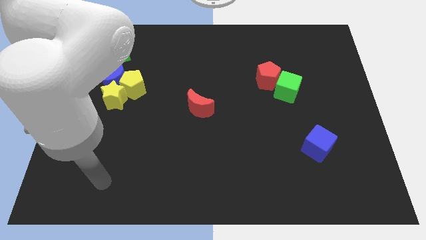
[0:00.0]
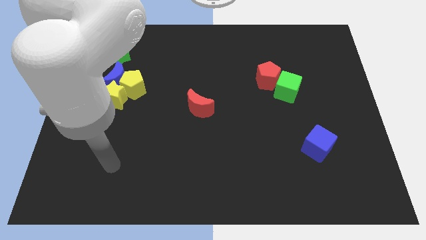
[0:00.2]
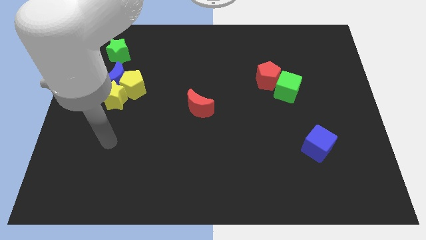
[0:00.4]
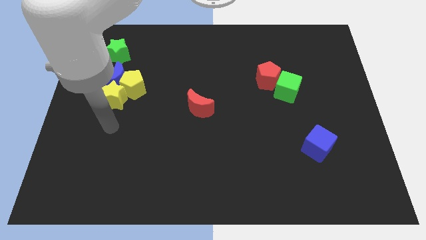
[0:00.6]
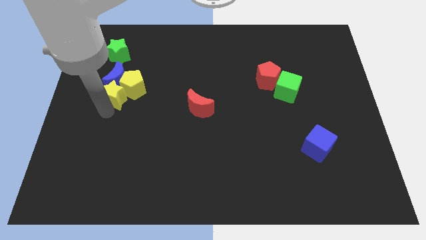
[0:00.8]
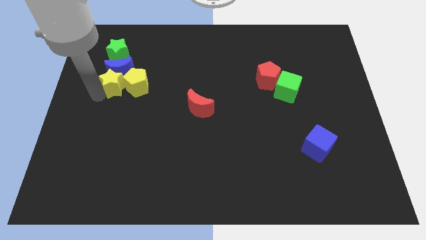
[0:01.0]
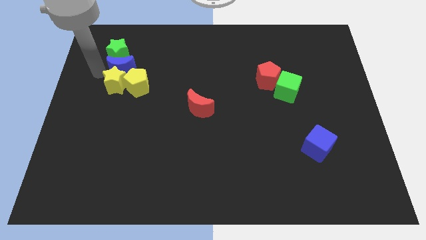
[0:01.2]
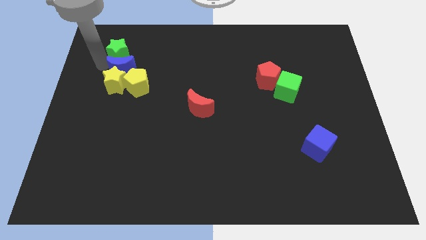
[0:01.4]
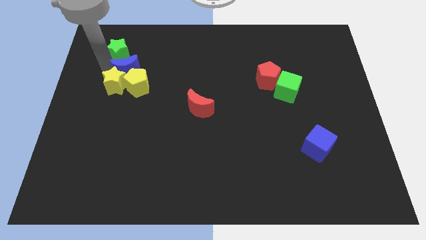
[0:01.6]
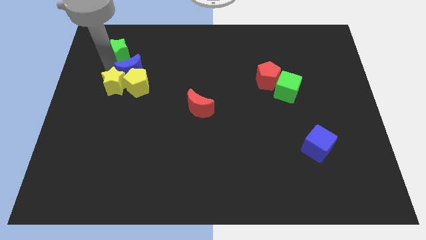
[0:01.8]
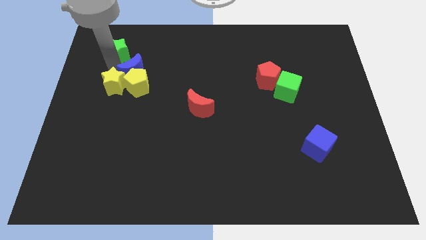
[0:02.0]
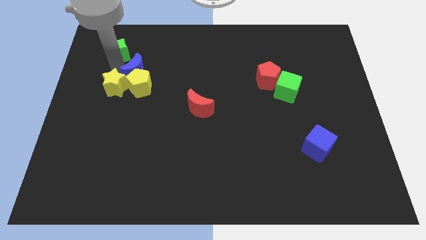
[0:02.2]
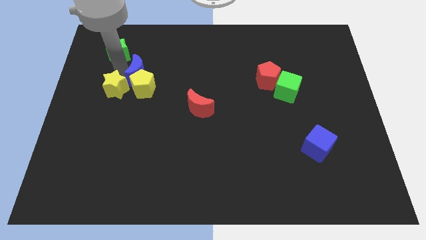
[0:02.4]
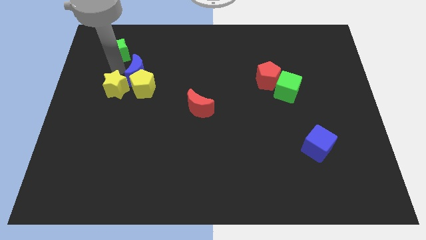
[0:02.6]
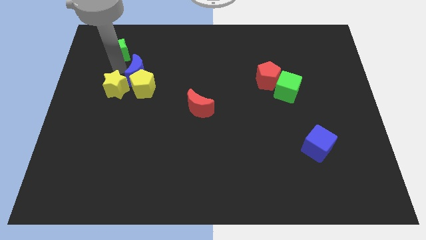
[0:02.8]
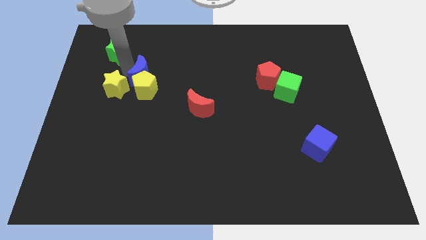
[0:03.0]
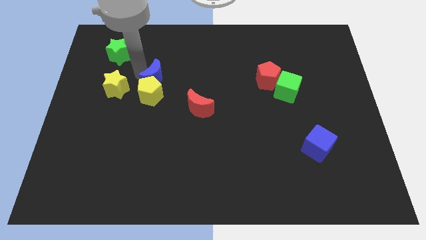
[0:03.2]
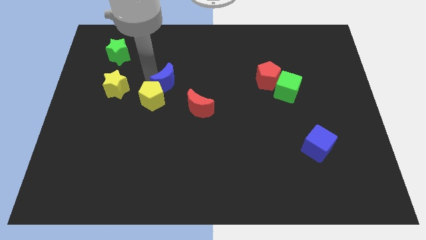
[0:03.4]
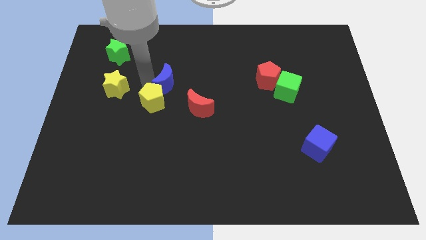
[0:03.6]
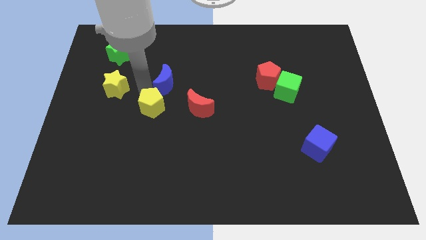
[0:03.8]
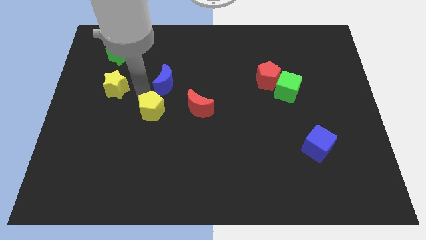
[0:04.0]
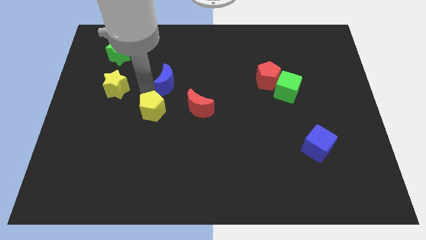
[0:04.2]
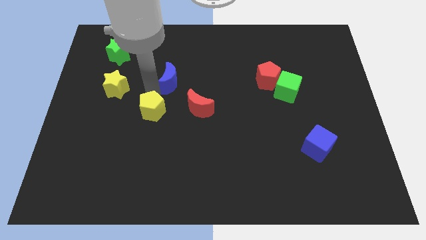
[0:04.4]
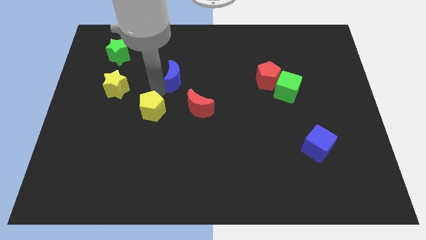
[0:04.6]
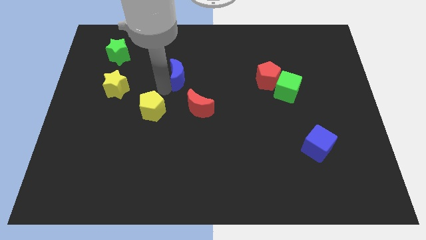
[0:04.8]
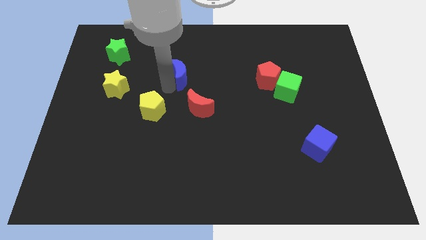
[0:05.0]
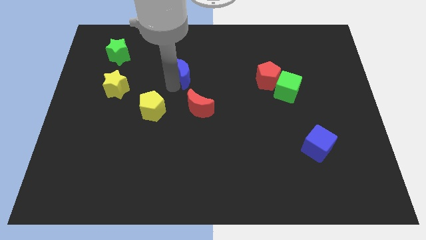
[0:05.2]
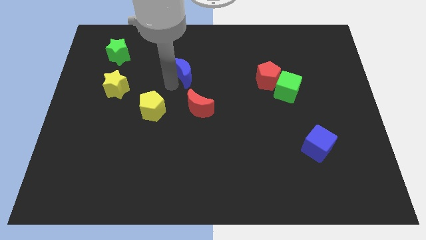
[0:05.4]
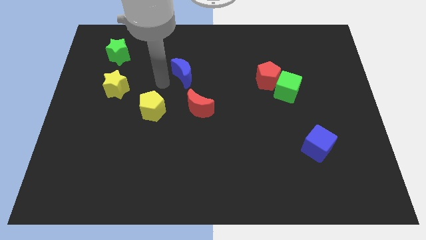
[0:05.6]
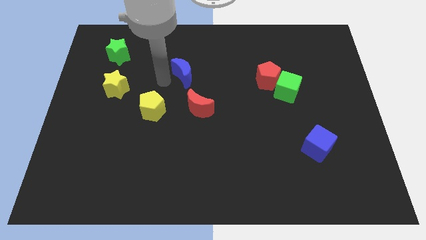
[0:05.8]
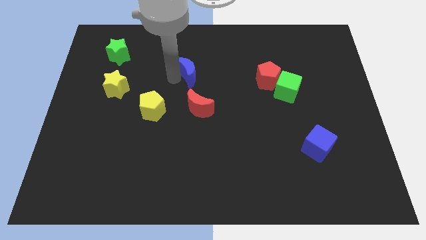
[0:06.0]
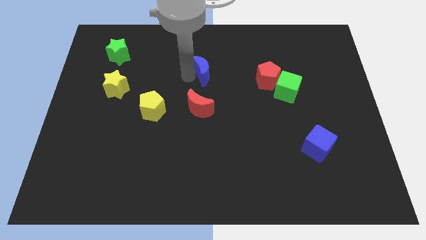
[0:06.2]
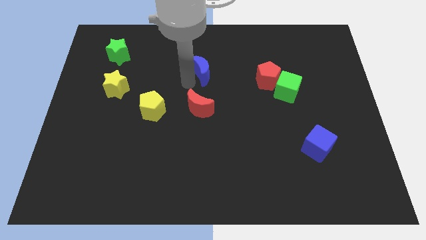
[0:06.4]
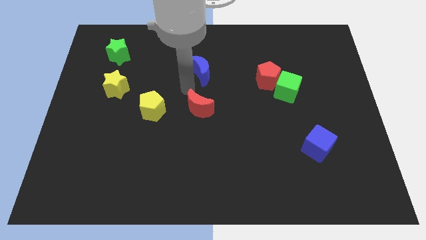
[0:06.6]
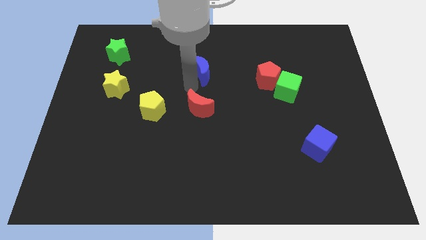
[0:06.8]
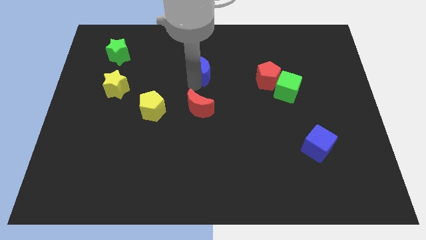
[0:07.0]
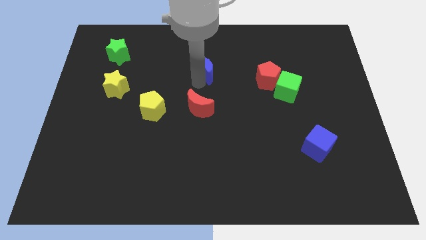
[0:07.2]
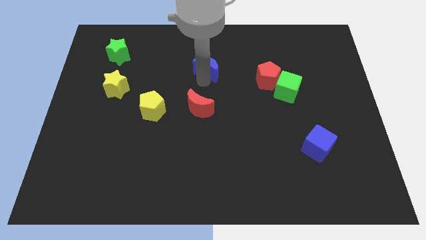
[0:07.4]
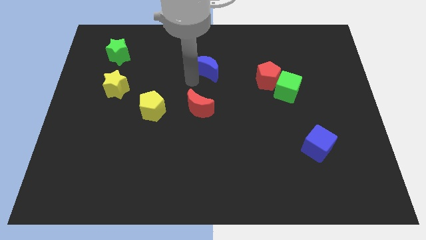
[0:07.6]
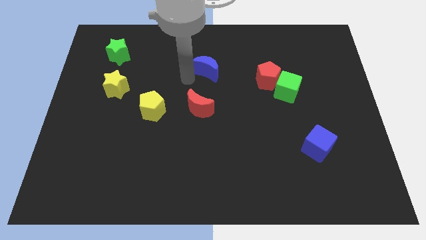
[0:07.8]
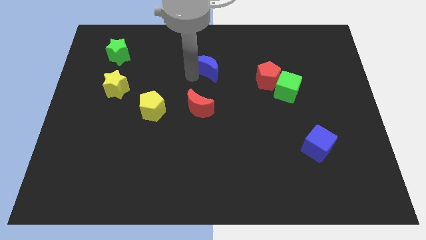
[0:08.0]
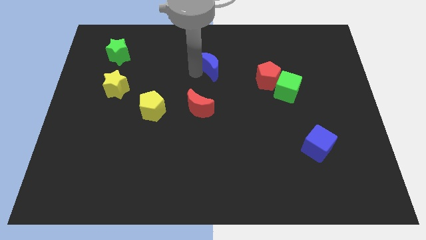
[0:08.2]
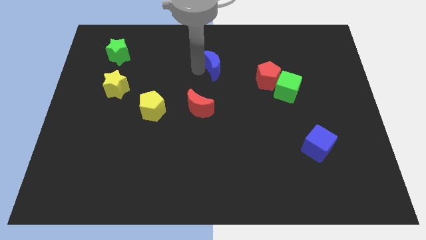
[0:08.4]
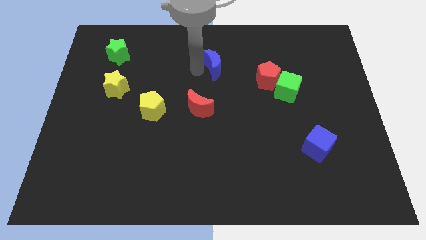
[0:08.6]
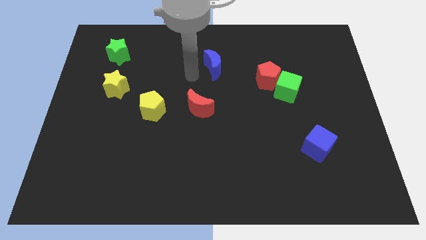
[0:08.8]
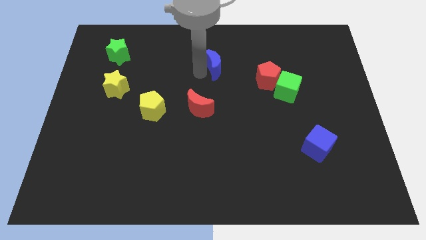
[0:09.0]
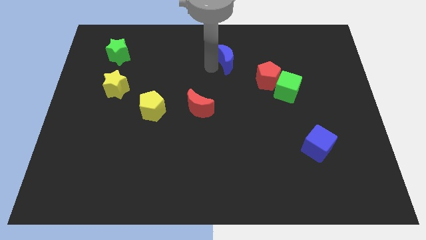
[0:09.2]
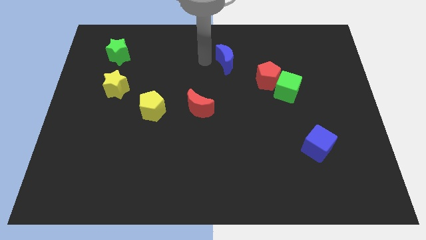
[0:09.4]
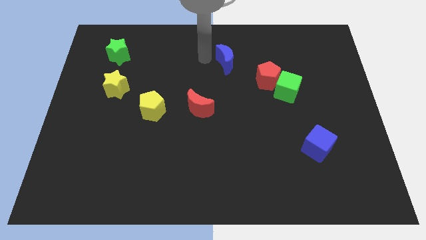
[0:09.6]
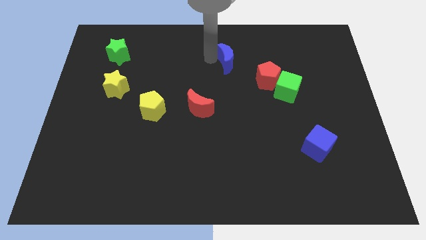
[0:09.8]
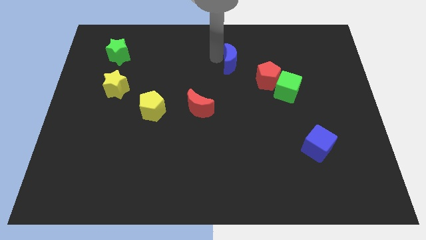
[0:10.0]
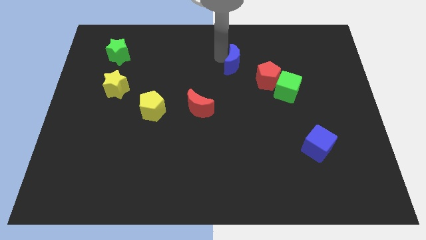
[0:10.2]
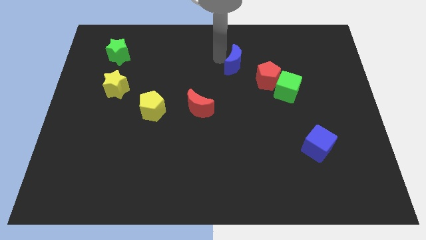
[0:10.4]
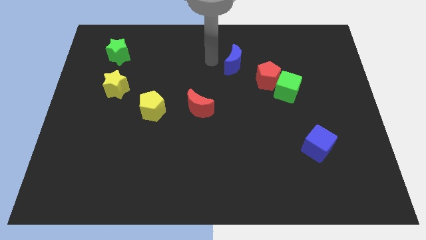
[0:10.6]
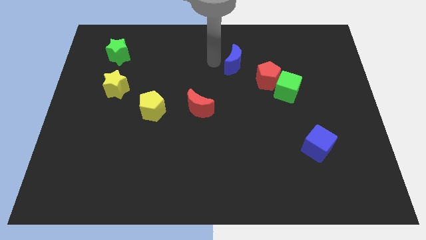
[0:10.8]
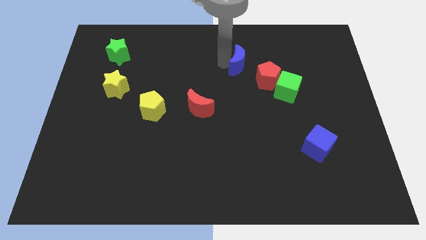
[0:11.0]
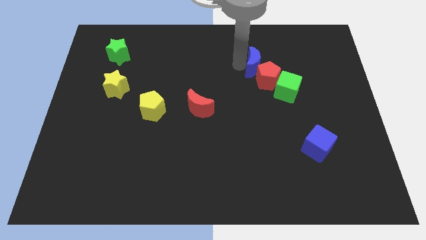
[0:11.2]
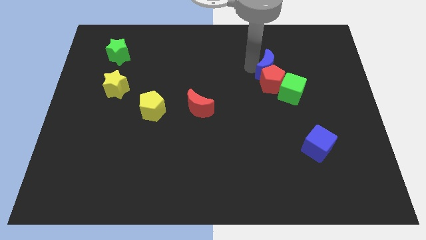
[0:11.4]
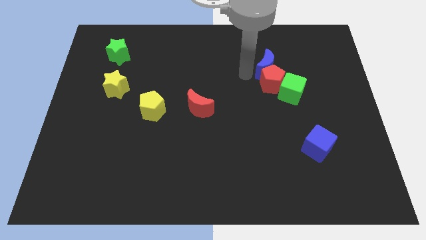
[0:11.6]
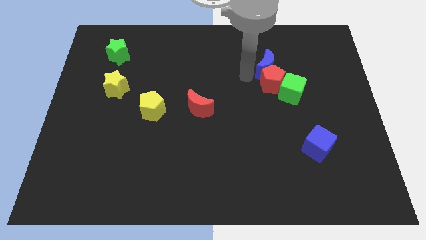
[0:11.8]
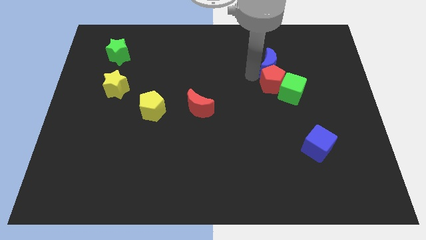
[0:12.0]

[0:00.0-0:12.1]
push the blue moon to the top side of the green cube

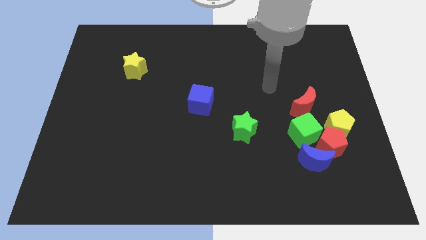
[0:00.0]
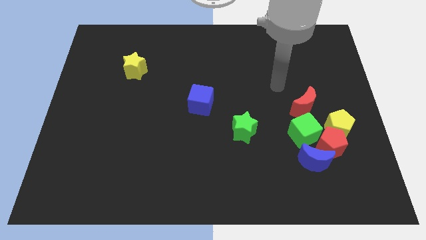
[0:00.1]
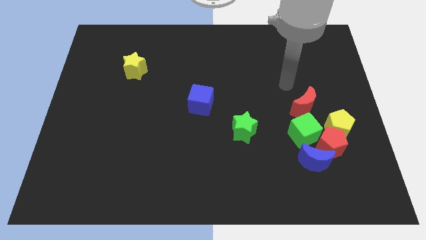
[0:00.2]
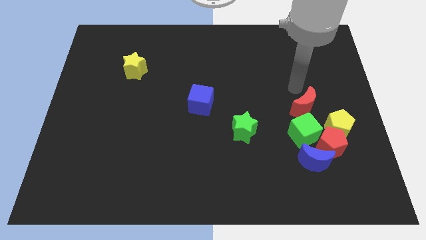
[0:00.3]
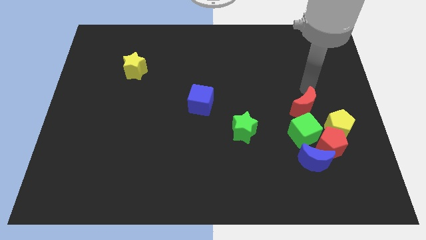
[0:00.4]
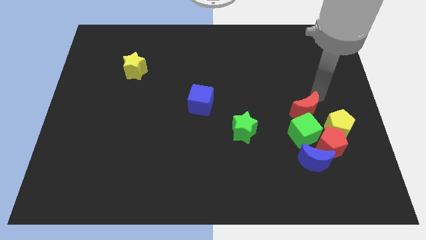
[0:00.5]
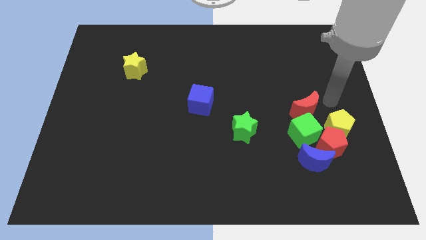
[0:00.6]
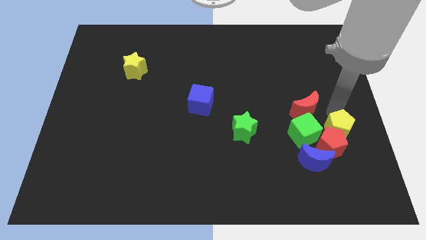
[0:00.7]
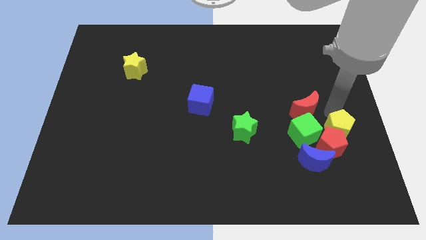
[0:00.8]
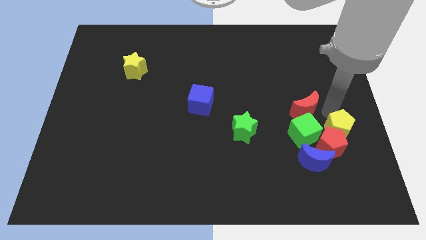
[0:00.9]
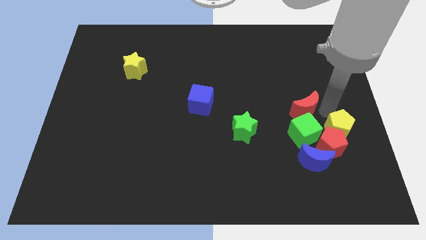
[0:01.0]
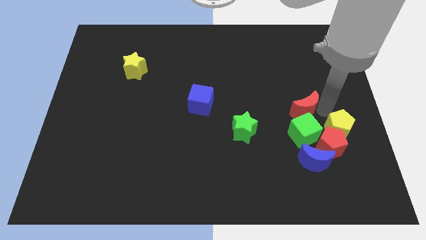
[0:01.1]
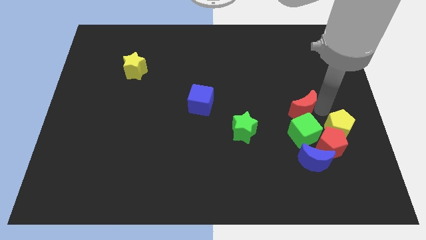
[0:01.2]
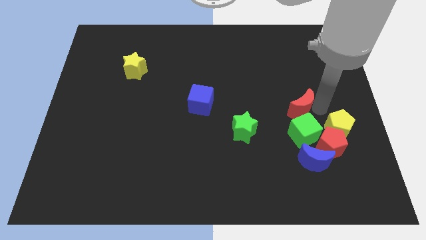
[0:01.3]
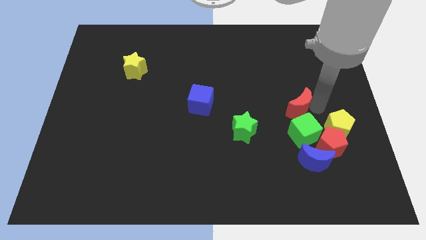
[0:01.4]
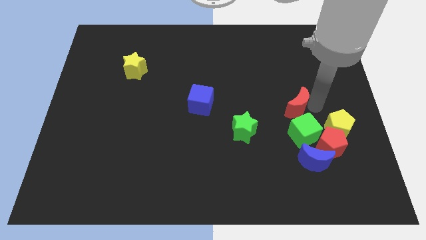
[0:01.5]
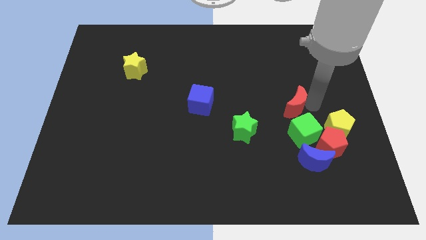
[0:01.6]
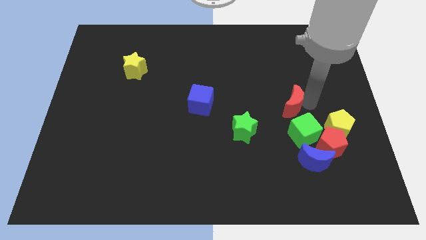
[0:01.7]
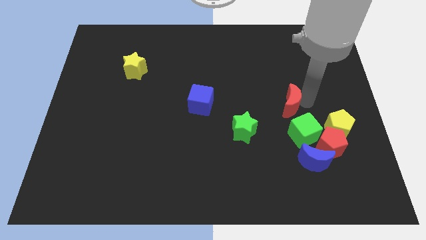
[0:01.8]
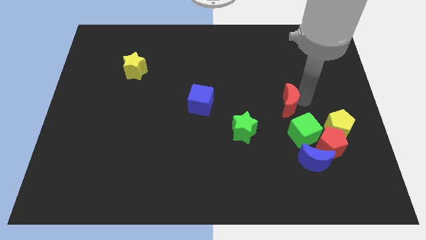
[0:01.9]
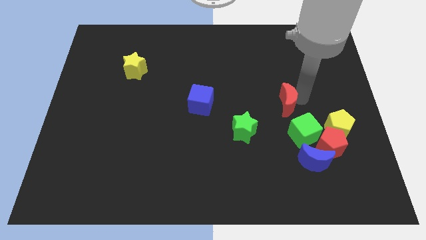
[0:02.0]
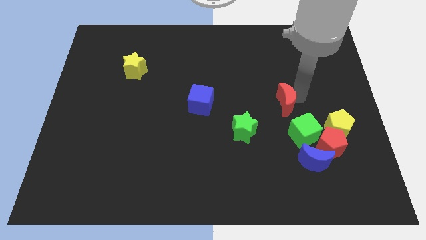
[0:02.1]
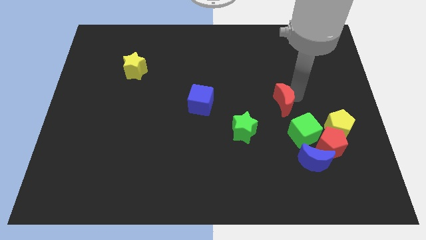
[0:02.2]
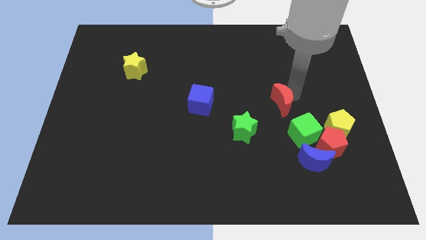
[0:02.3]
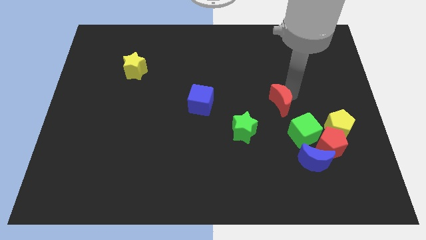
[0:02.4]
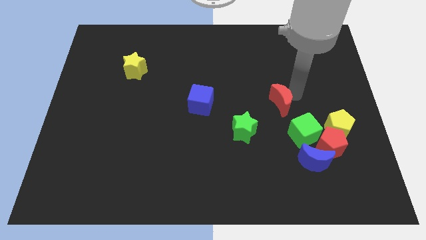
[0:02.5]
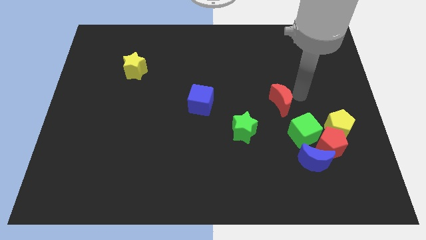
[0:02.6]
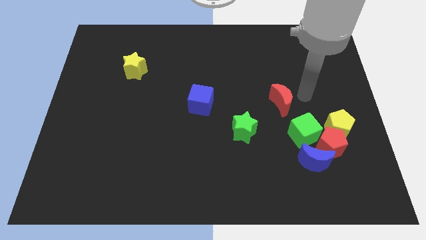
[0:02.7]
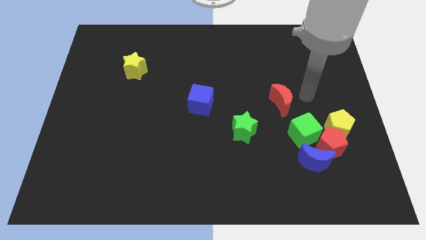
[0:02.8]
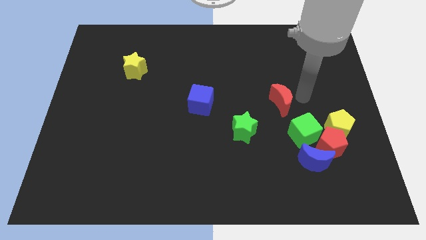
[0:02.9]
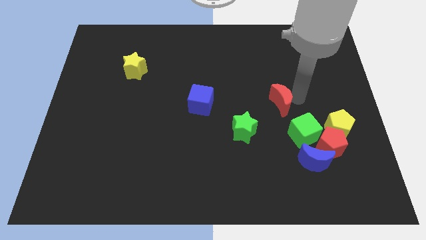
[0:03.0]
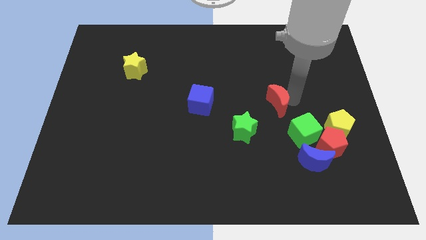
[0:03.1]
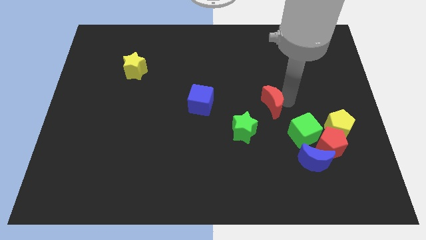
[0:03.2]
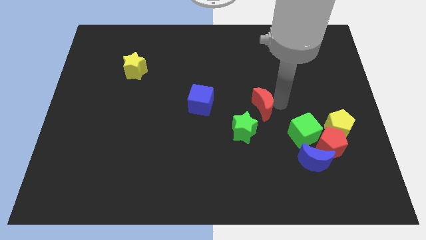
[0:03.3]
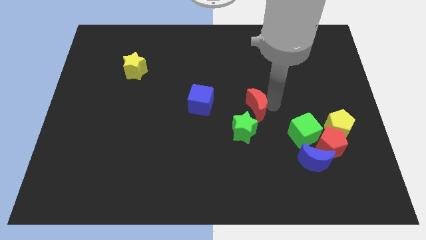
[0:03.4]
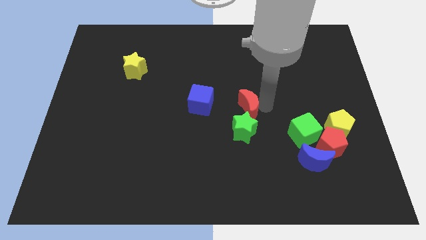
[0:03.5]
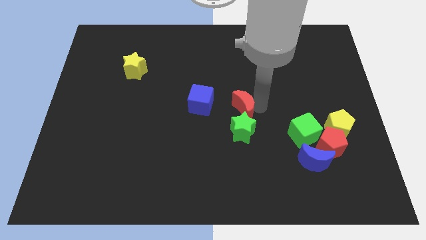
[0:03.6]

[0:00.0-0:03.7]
put the red moon to the top left side of the green star
